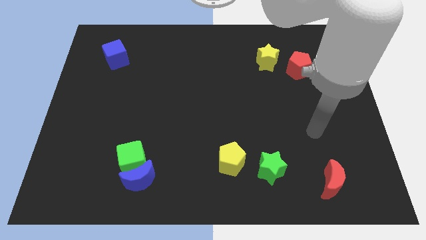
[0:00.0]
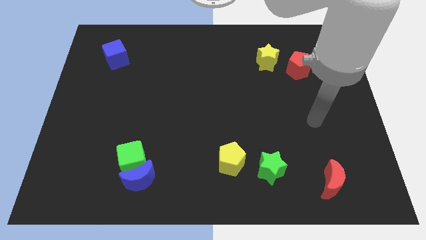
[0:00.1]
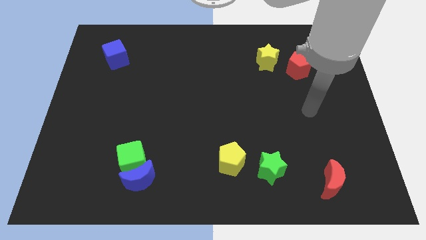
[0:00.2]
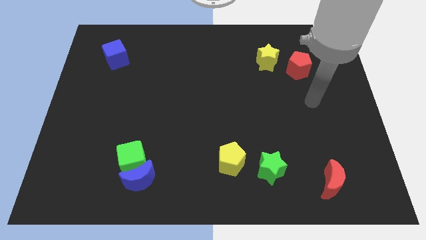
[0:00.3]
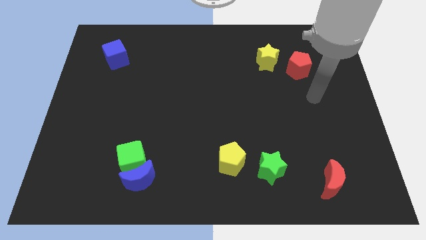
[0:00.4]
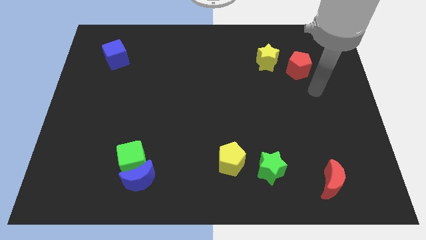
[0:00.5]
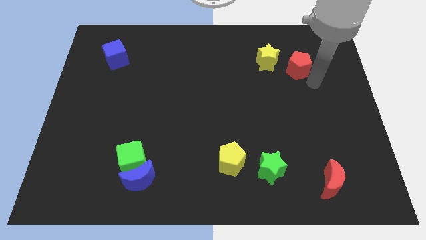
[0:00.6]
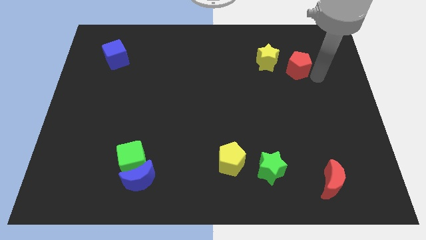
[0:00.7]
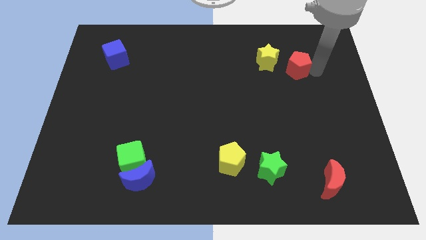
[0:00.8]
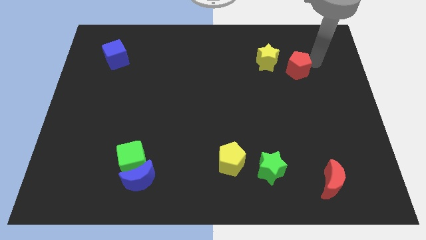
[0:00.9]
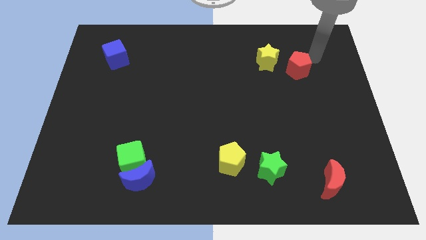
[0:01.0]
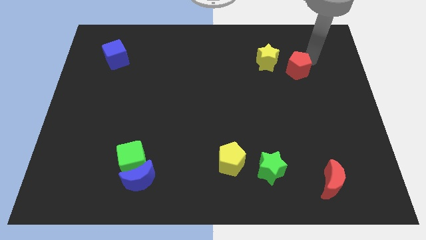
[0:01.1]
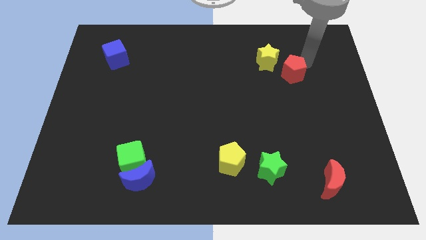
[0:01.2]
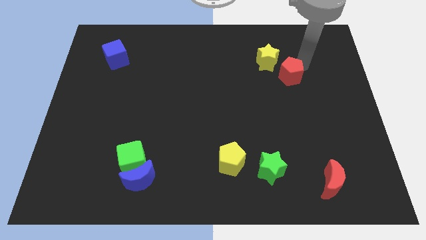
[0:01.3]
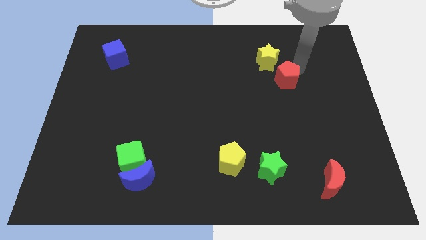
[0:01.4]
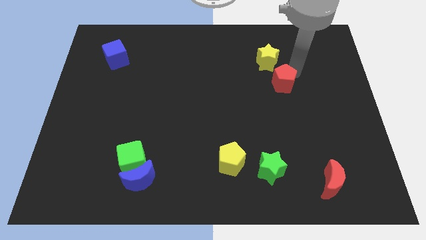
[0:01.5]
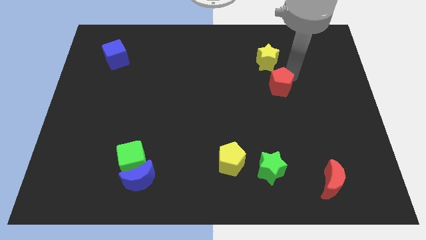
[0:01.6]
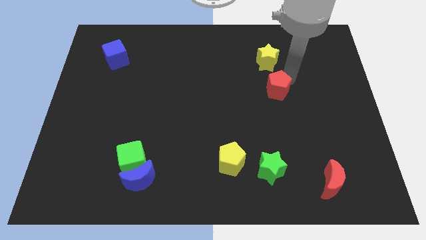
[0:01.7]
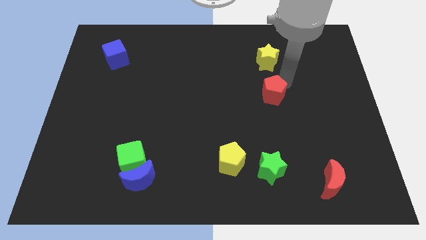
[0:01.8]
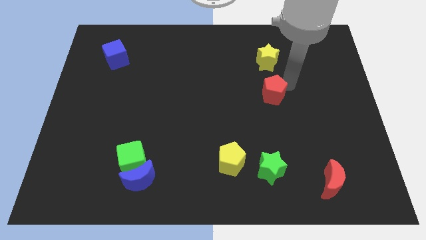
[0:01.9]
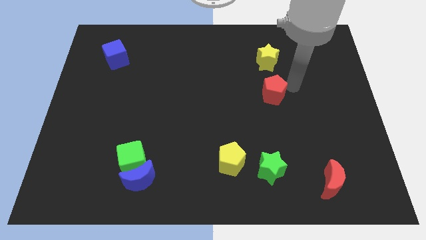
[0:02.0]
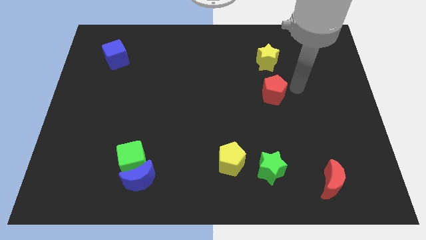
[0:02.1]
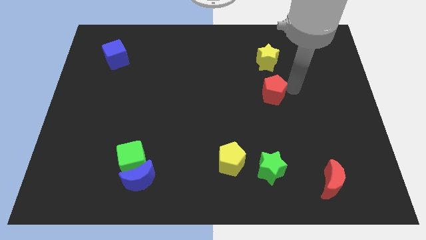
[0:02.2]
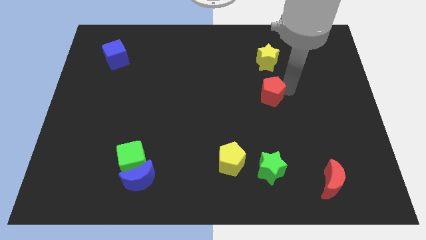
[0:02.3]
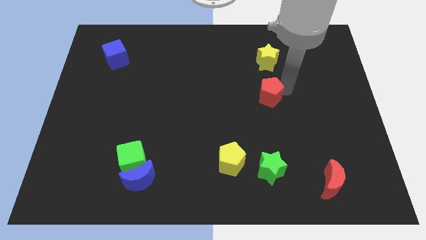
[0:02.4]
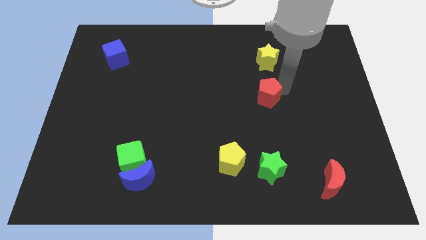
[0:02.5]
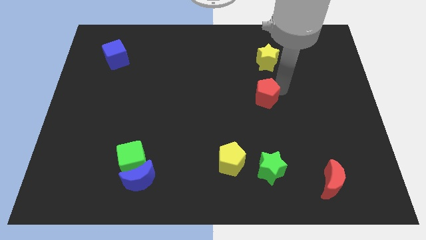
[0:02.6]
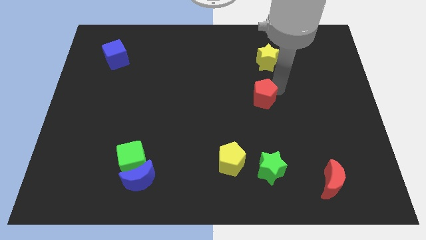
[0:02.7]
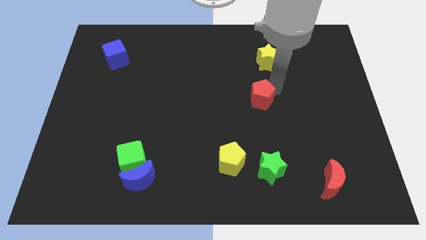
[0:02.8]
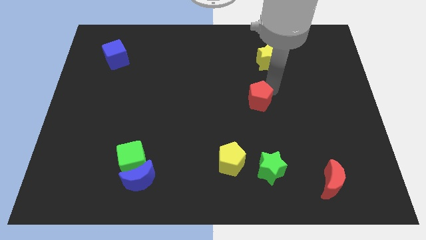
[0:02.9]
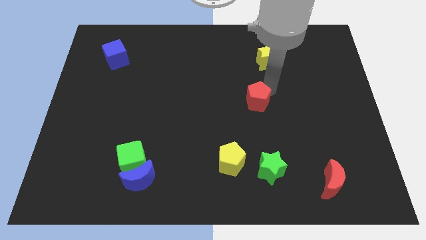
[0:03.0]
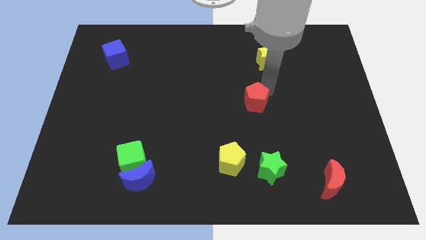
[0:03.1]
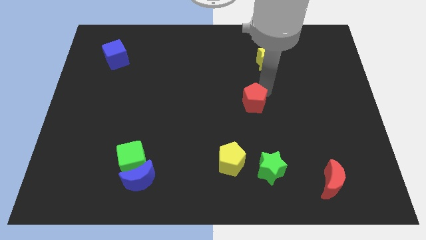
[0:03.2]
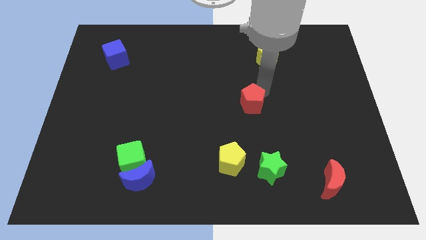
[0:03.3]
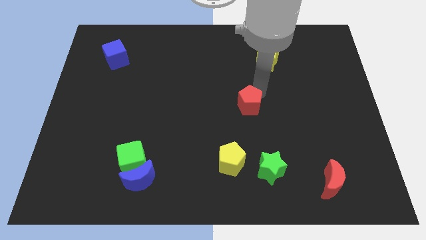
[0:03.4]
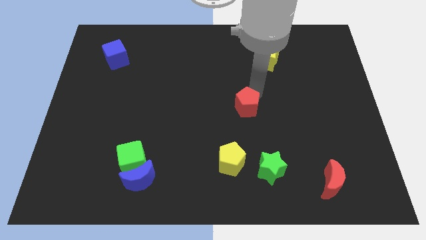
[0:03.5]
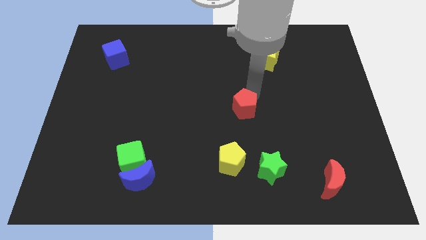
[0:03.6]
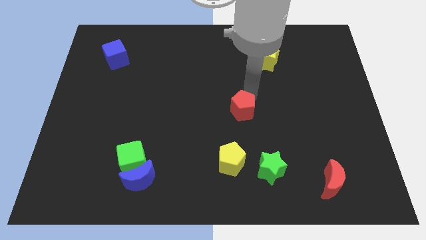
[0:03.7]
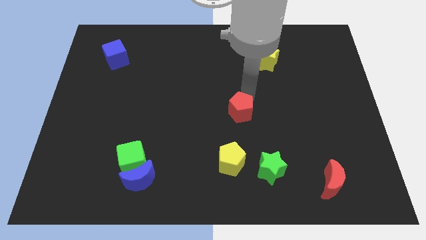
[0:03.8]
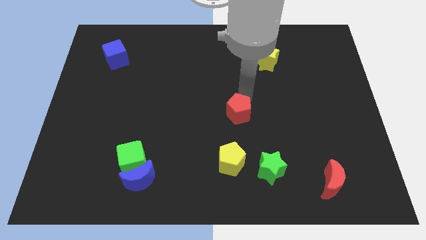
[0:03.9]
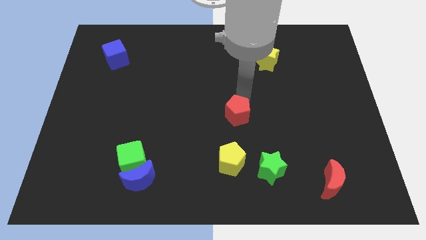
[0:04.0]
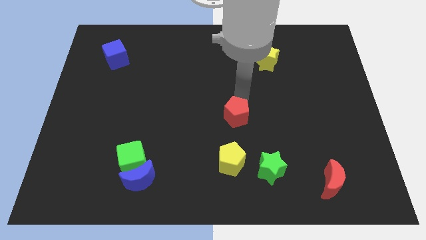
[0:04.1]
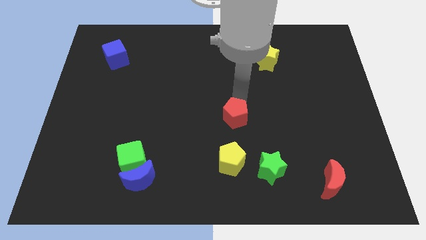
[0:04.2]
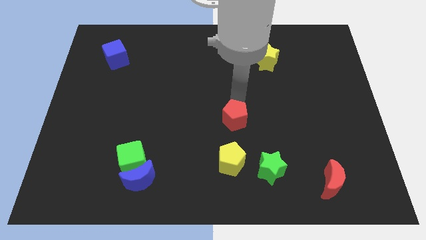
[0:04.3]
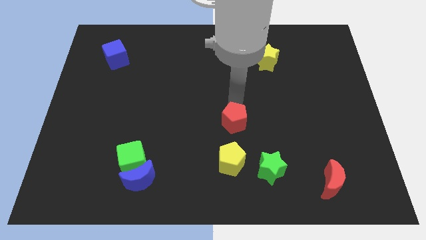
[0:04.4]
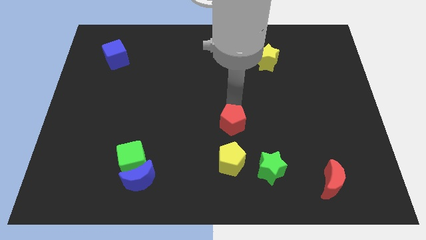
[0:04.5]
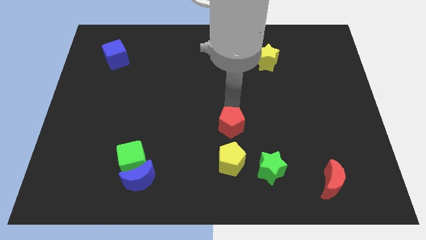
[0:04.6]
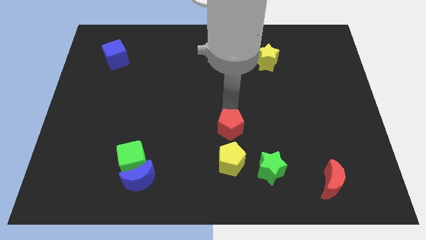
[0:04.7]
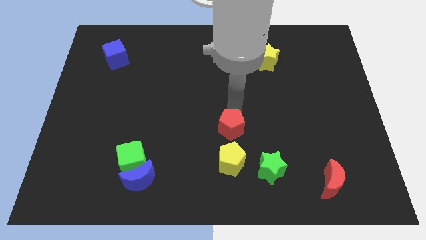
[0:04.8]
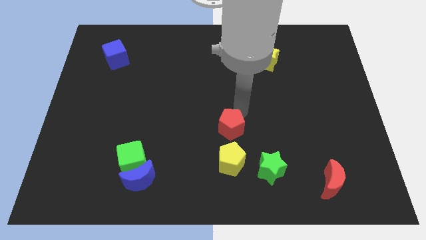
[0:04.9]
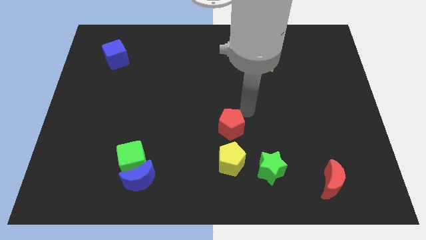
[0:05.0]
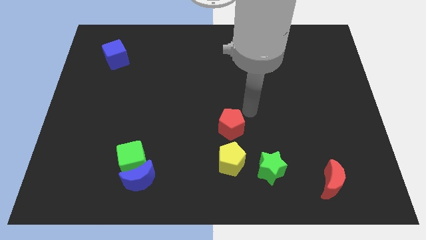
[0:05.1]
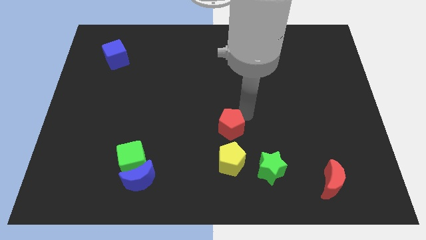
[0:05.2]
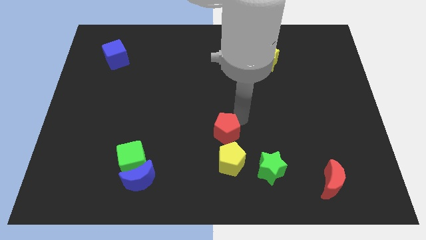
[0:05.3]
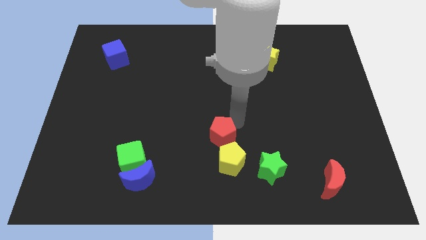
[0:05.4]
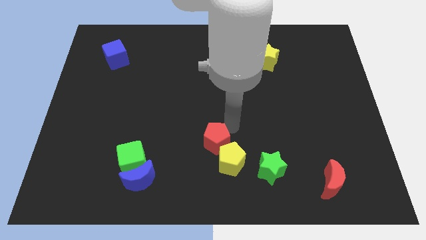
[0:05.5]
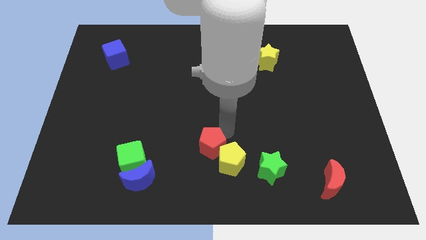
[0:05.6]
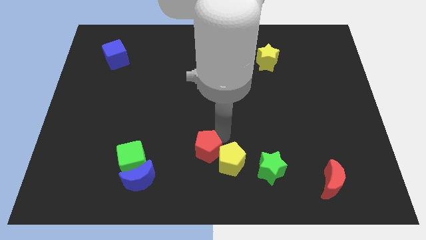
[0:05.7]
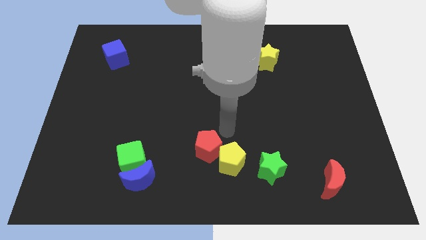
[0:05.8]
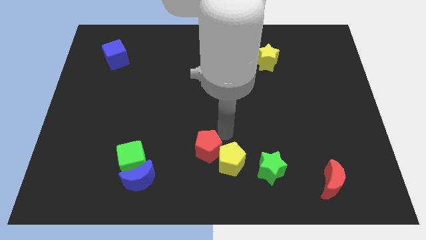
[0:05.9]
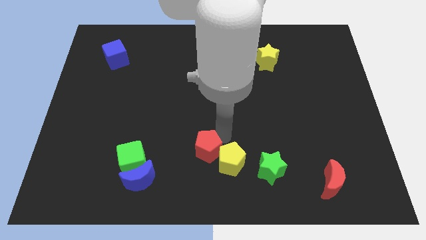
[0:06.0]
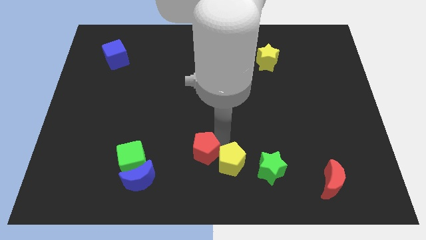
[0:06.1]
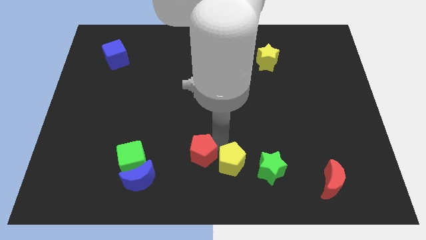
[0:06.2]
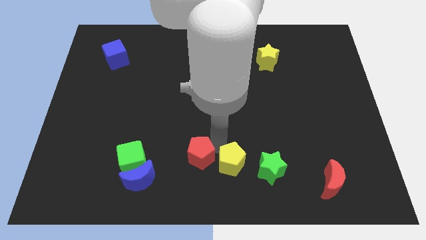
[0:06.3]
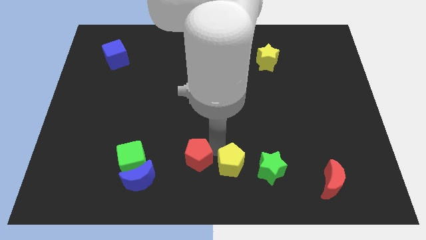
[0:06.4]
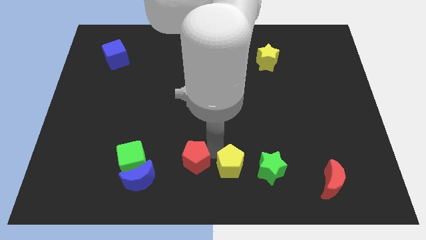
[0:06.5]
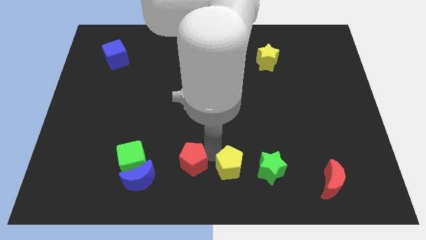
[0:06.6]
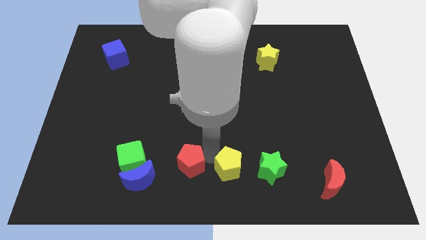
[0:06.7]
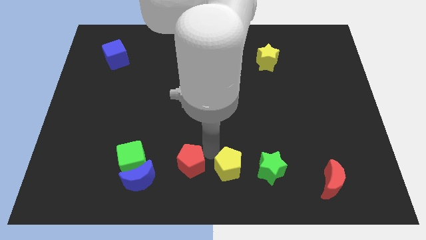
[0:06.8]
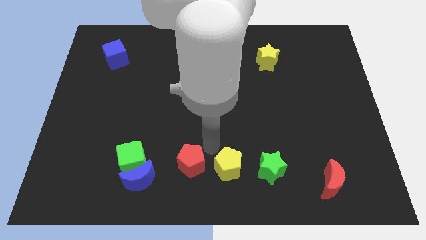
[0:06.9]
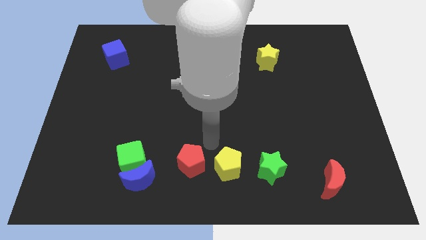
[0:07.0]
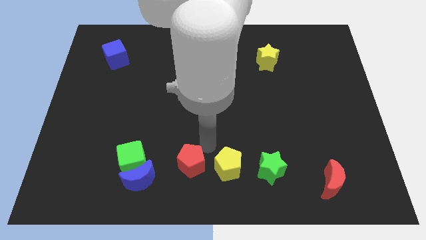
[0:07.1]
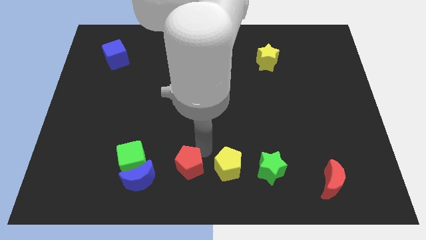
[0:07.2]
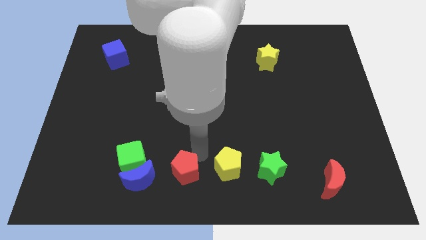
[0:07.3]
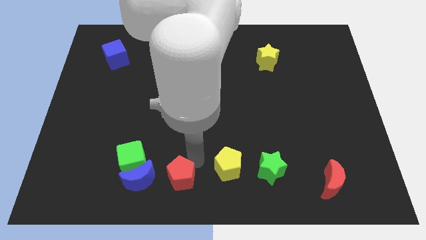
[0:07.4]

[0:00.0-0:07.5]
slide the red pentagon to the bottom right of the green cube
